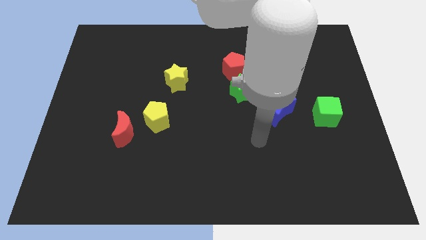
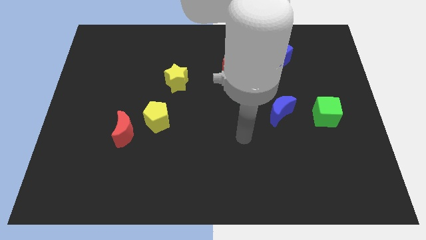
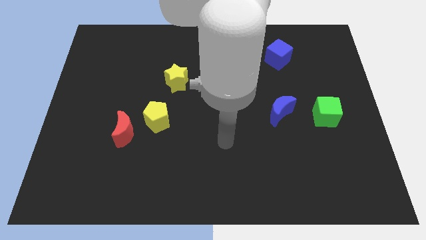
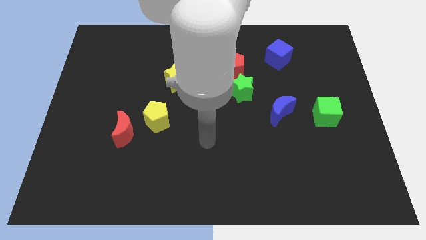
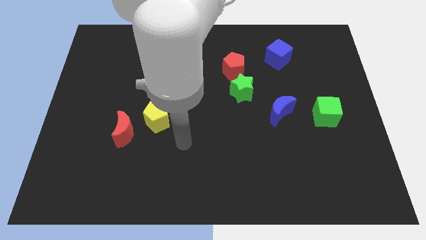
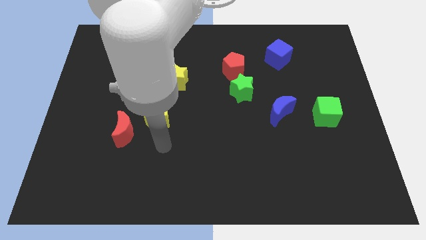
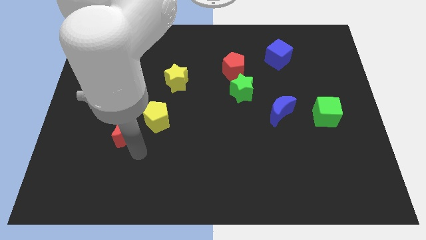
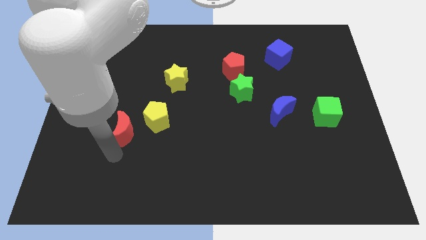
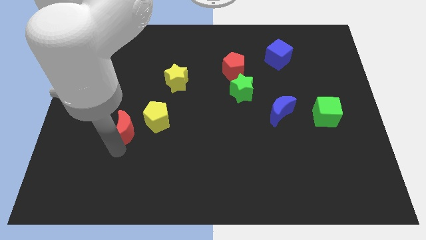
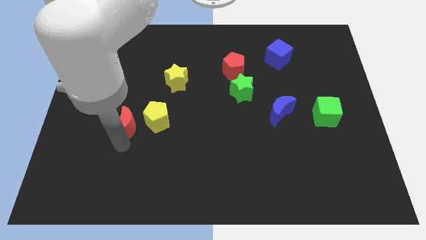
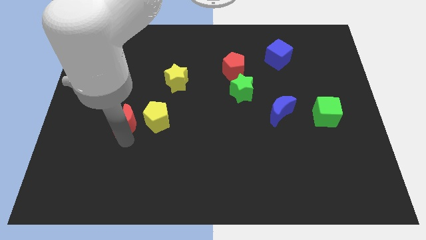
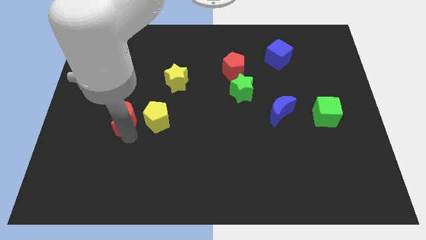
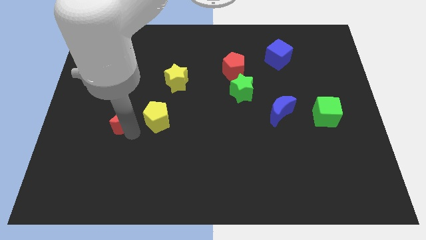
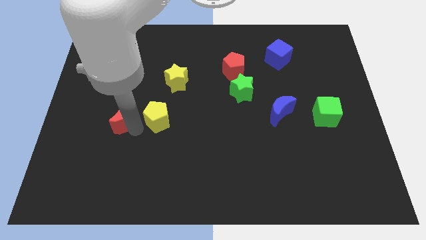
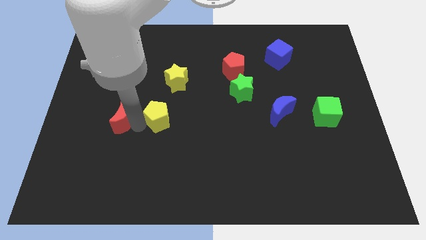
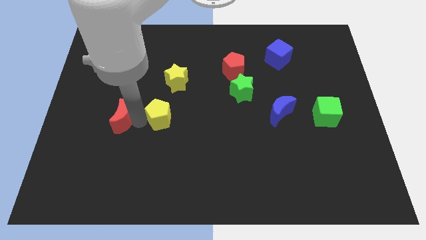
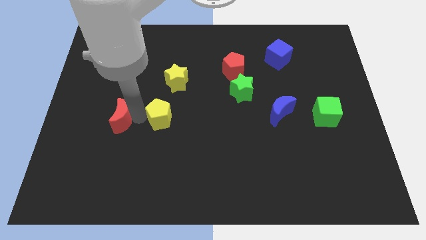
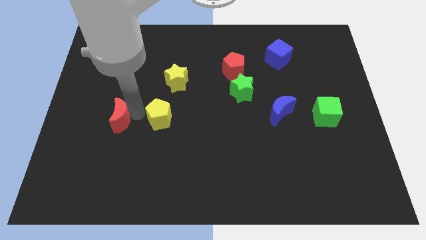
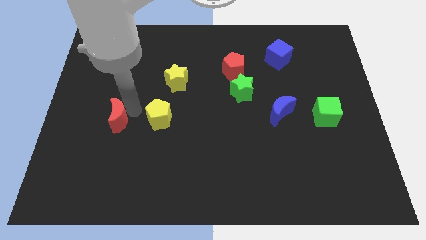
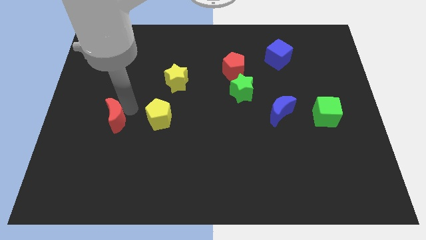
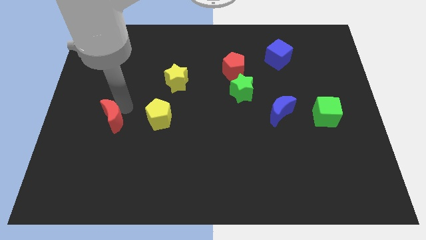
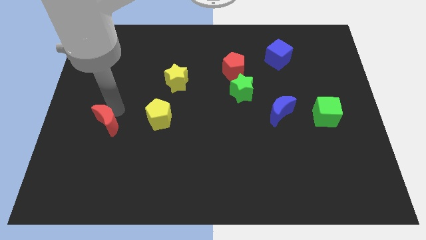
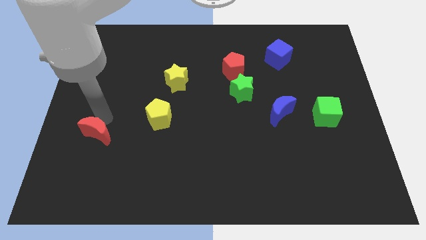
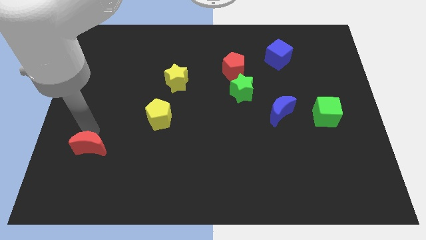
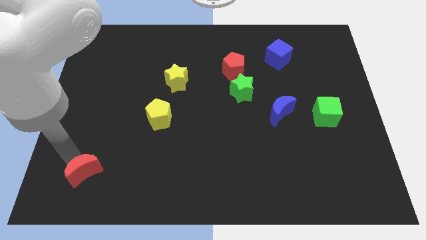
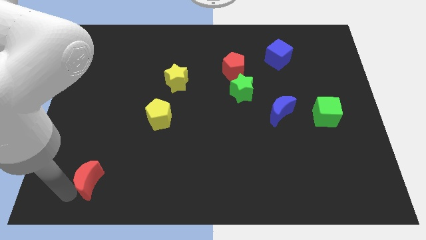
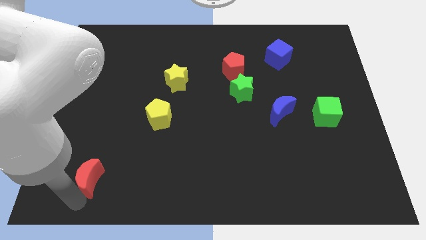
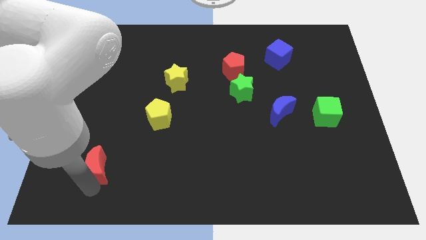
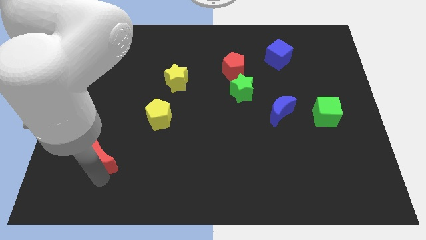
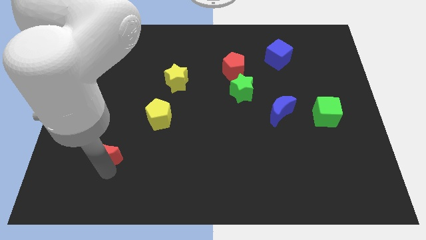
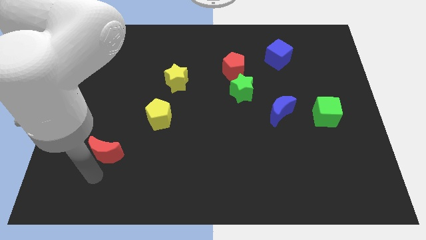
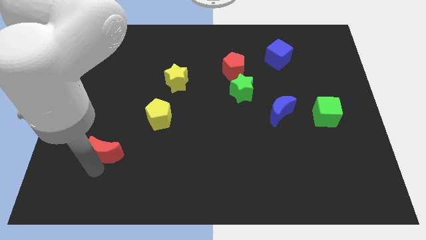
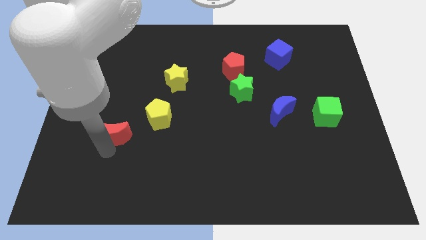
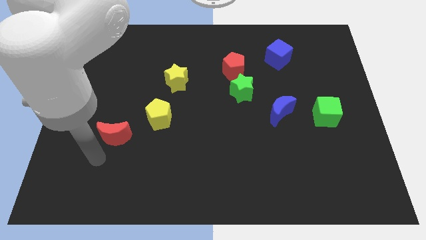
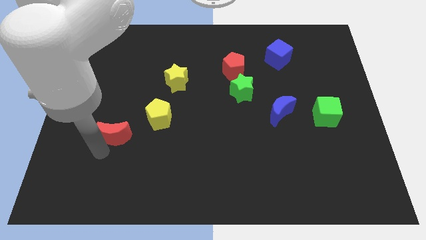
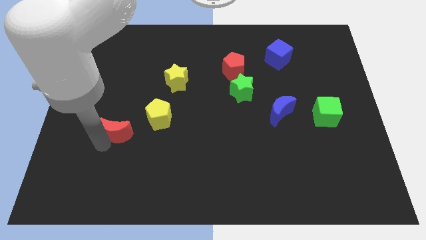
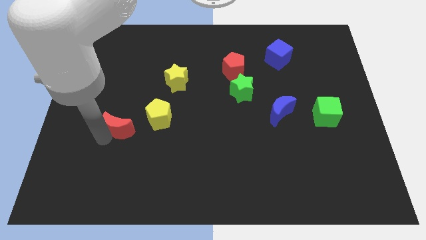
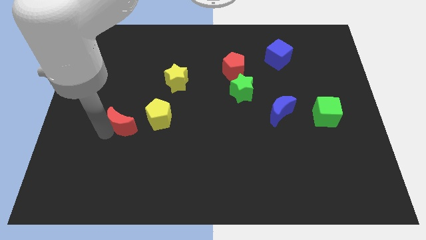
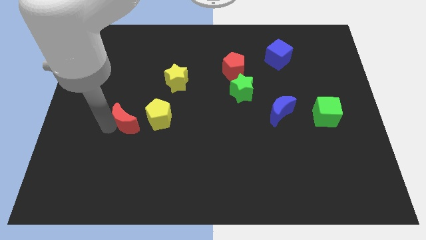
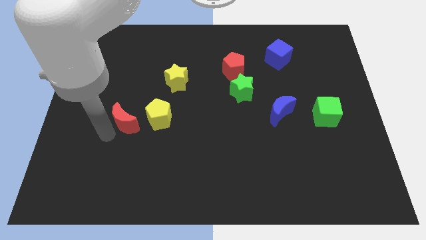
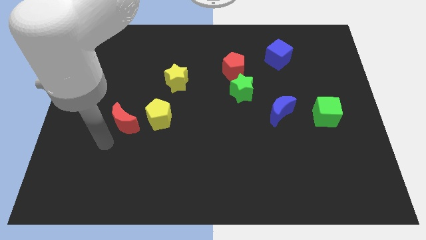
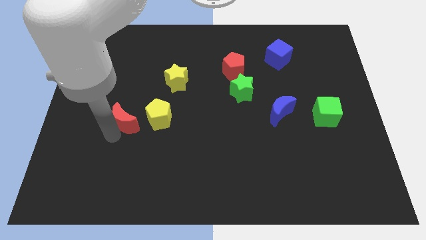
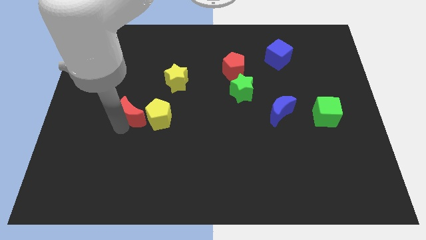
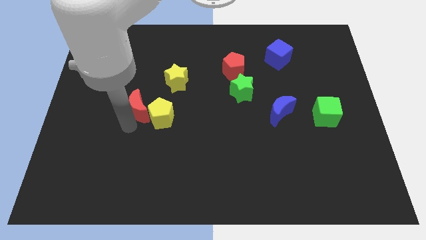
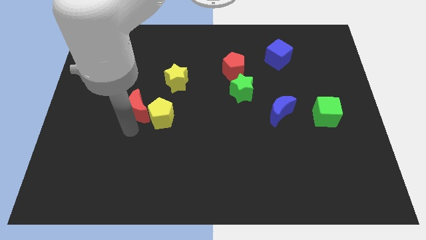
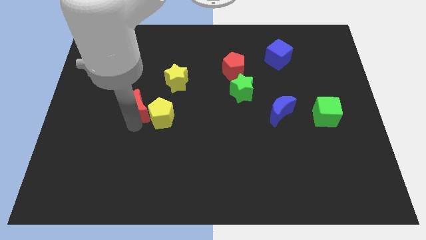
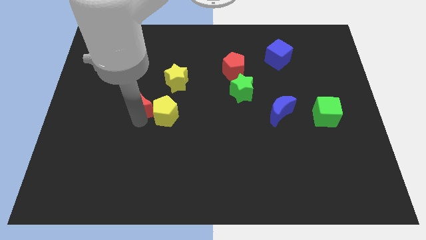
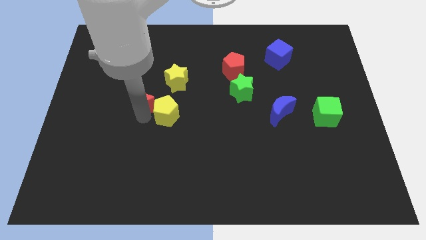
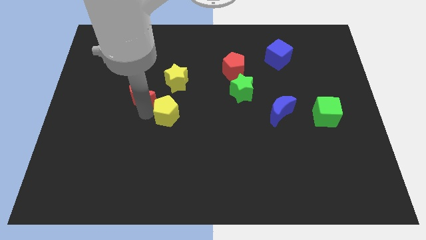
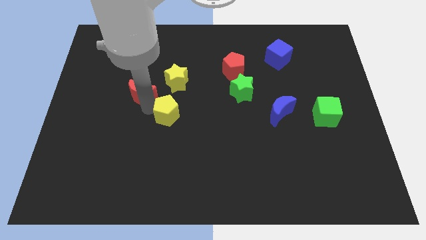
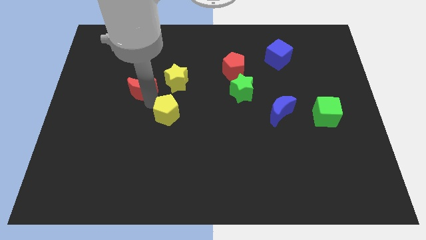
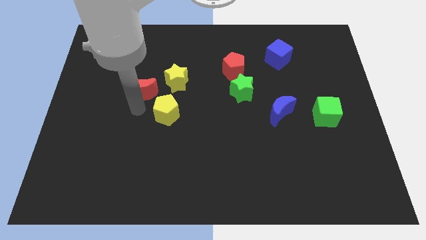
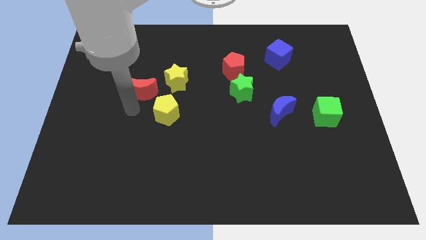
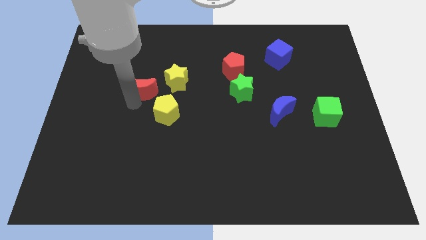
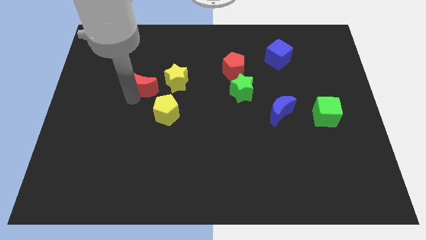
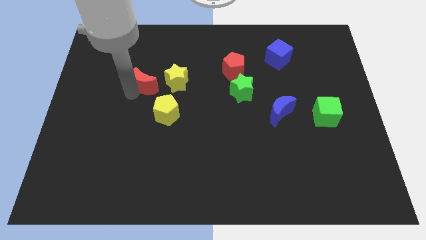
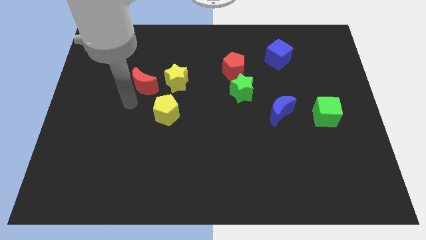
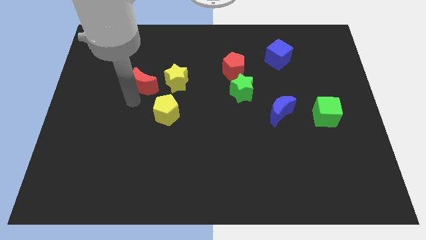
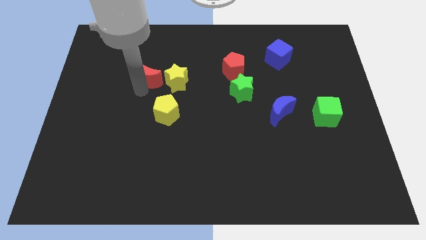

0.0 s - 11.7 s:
push the red moon diagonally up and to the left of the yellow star

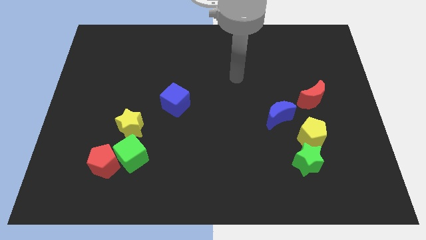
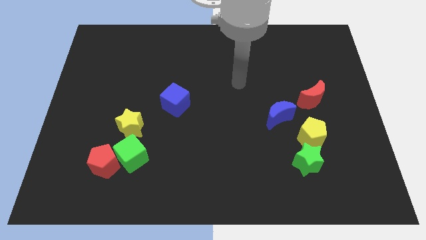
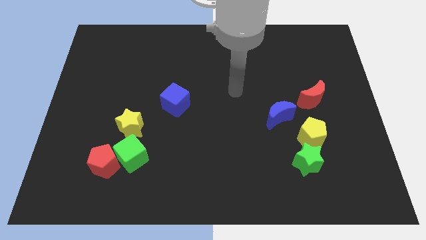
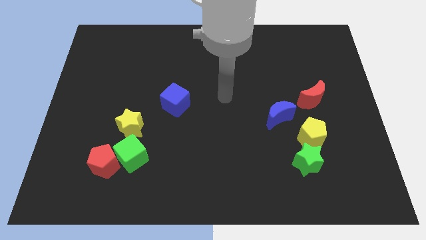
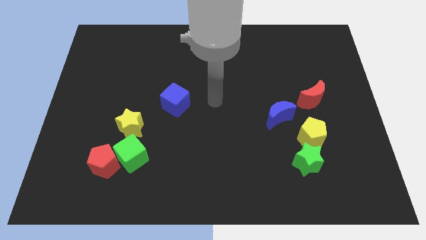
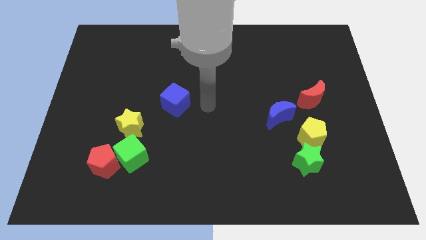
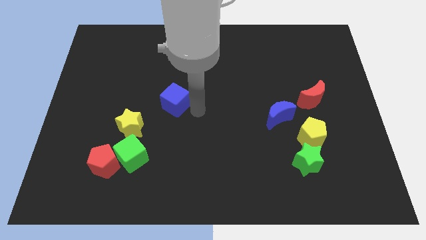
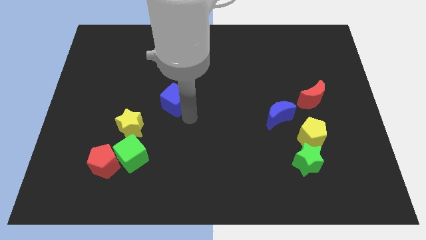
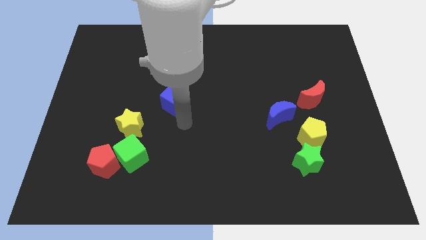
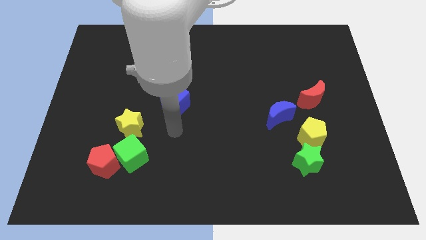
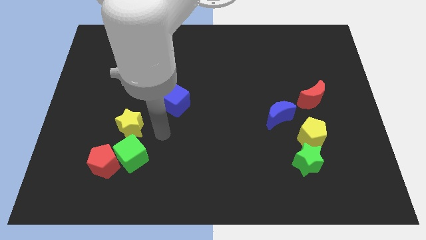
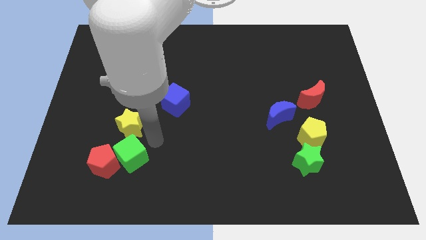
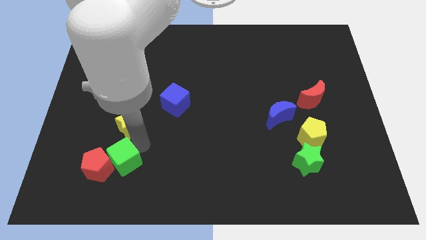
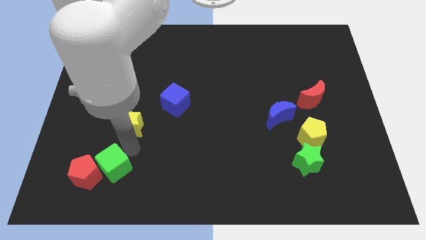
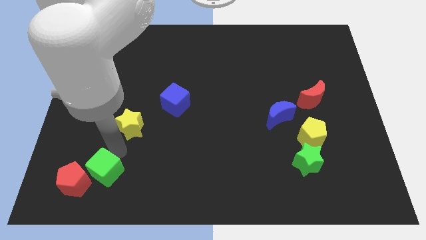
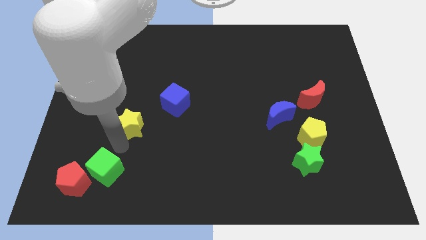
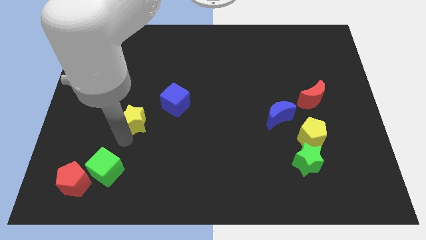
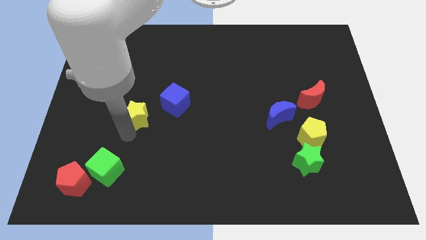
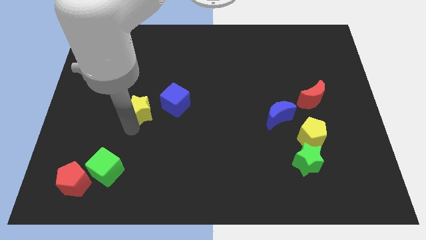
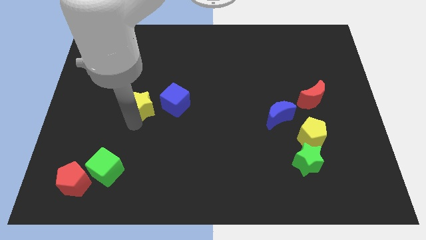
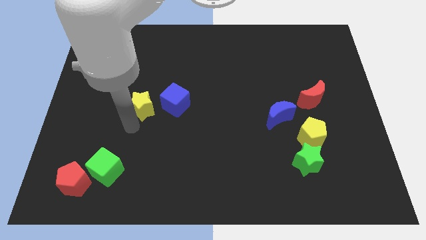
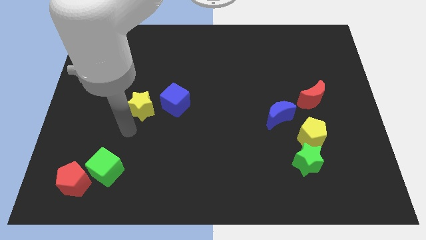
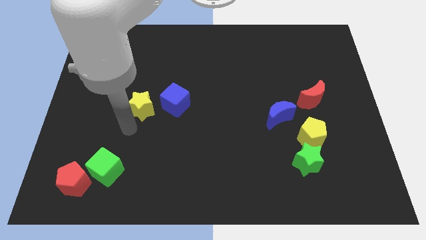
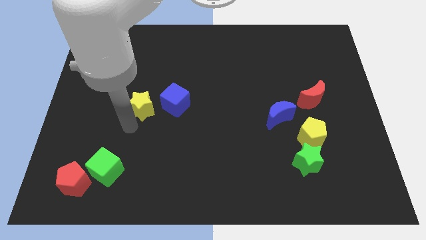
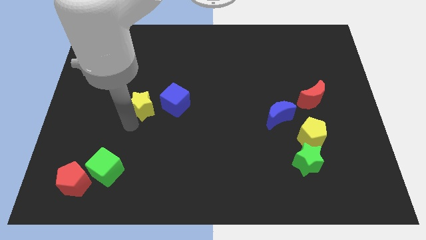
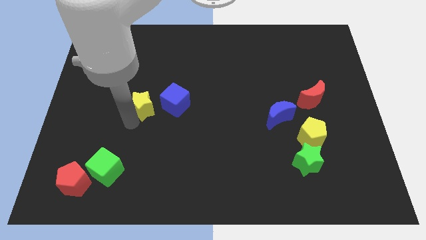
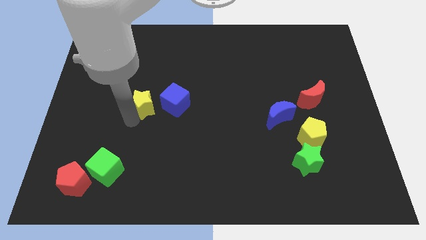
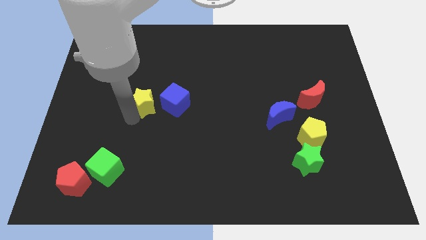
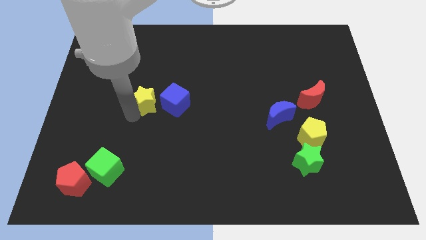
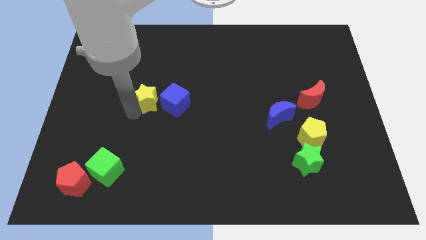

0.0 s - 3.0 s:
put the yellow star to the top left side of the blue cube
